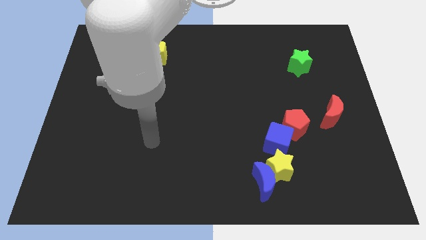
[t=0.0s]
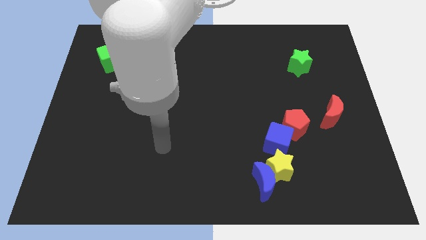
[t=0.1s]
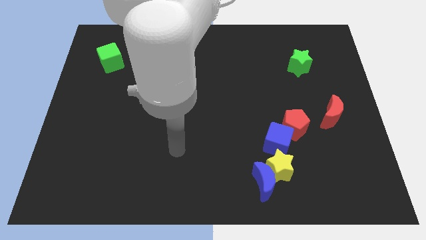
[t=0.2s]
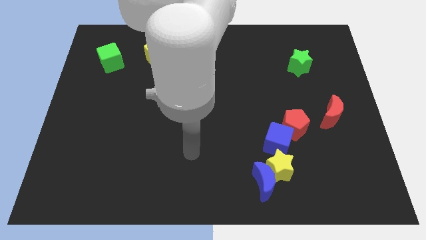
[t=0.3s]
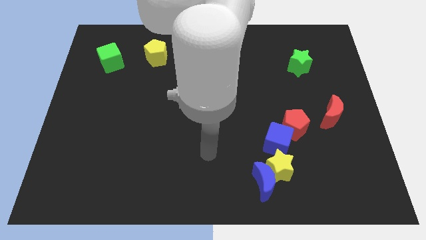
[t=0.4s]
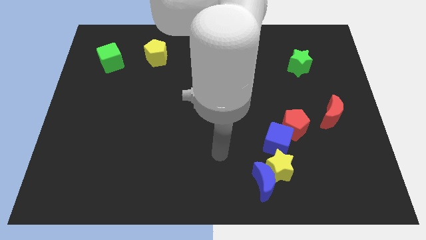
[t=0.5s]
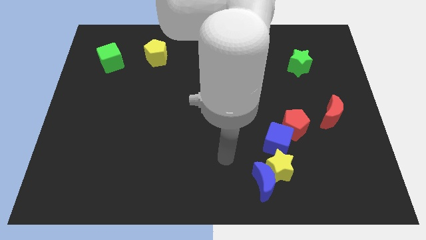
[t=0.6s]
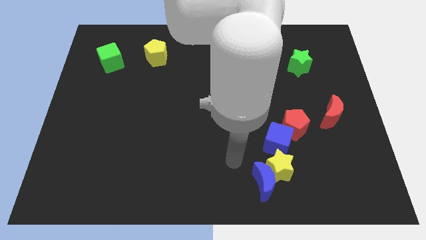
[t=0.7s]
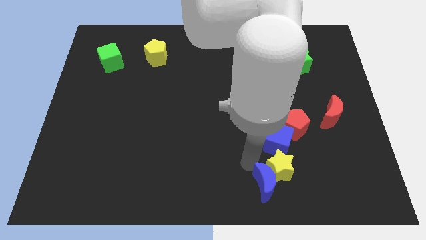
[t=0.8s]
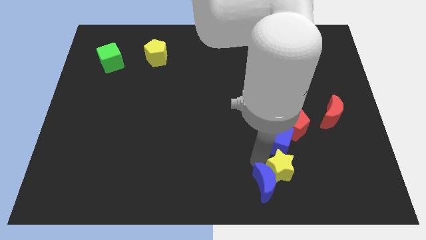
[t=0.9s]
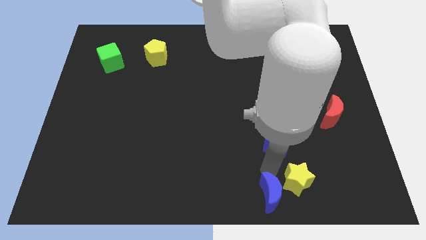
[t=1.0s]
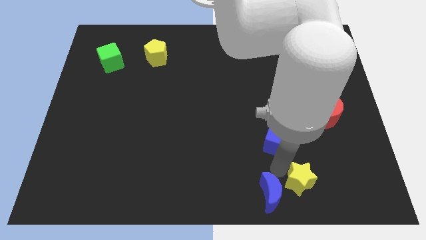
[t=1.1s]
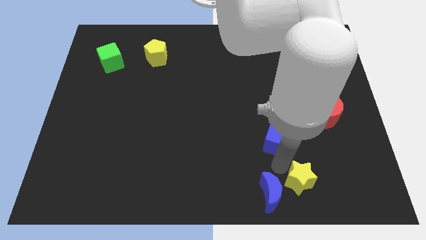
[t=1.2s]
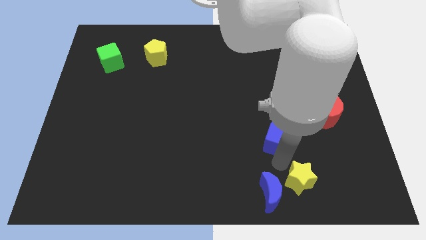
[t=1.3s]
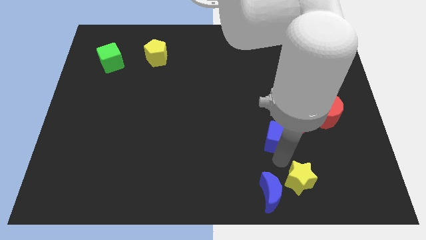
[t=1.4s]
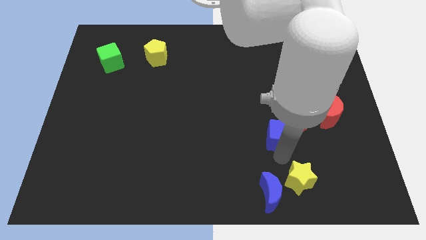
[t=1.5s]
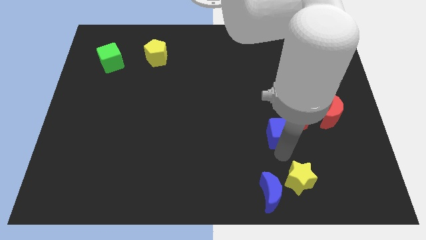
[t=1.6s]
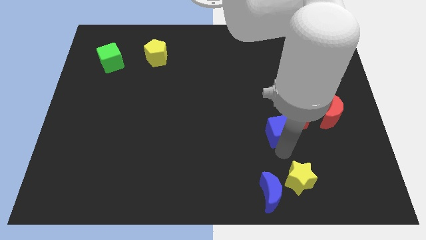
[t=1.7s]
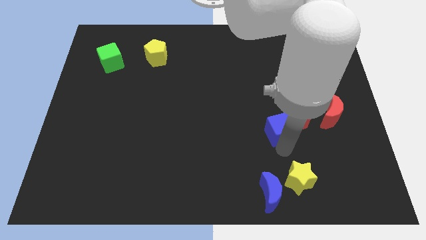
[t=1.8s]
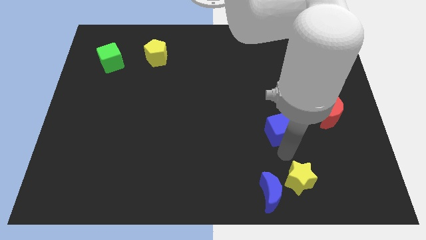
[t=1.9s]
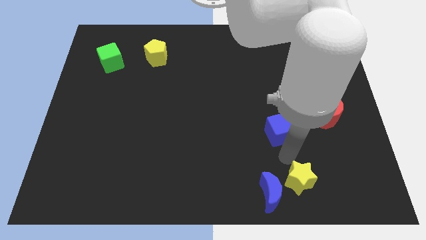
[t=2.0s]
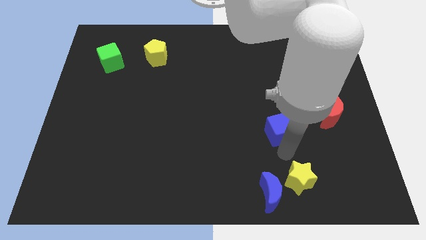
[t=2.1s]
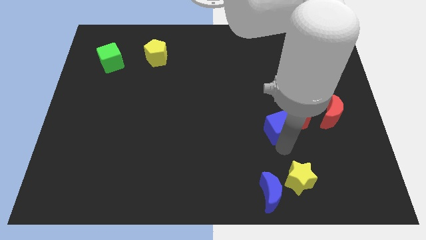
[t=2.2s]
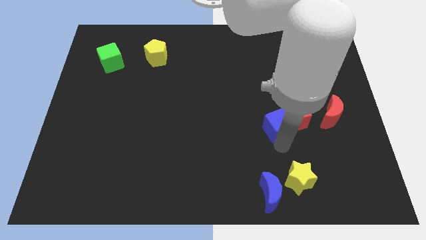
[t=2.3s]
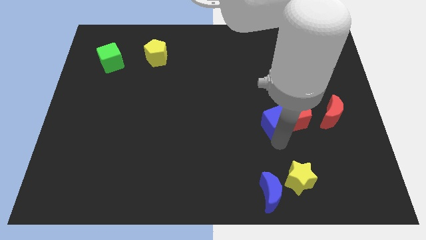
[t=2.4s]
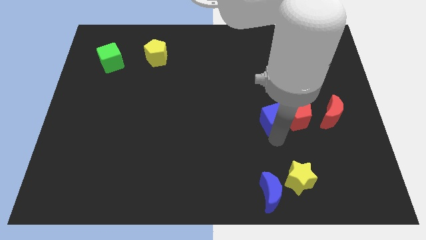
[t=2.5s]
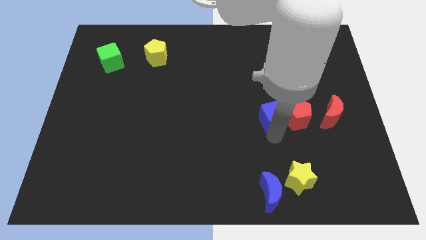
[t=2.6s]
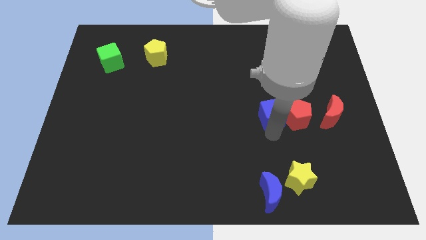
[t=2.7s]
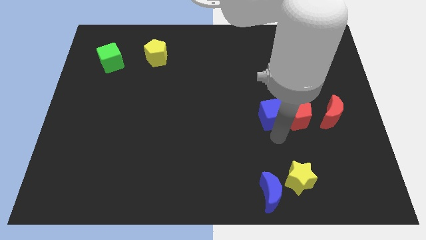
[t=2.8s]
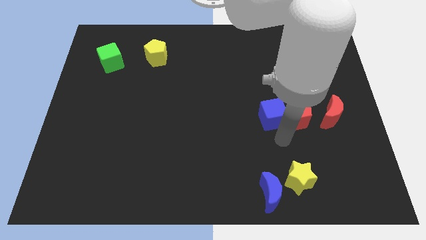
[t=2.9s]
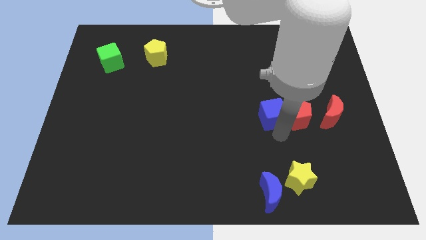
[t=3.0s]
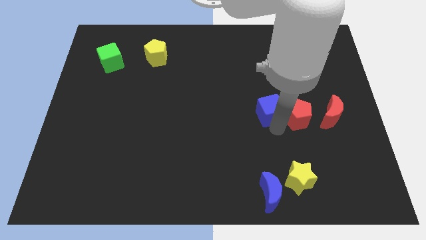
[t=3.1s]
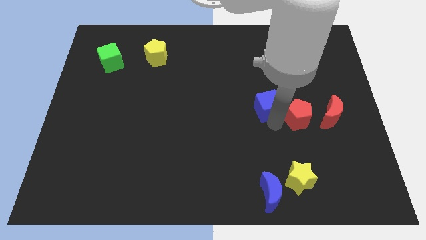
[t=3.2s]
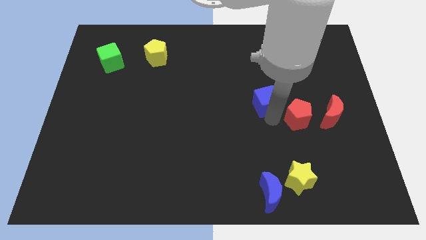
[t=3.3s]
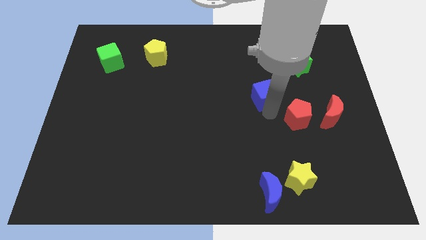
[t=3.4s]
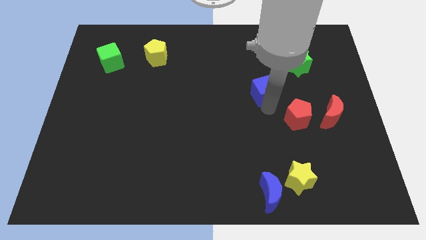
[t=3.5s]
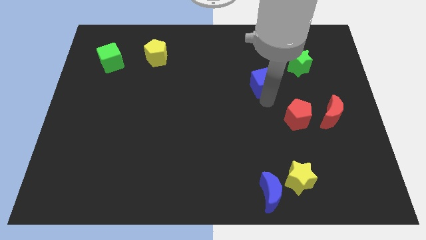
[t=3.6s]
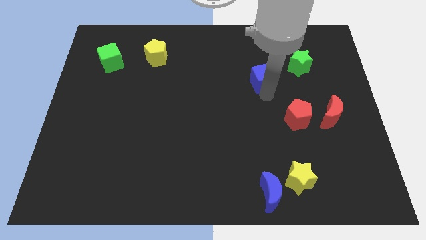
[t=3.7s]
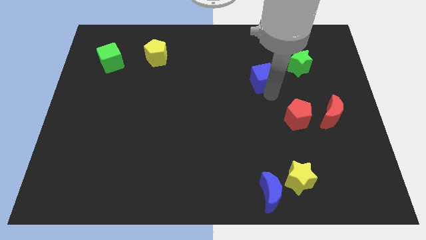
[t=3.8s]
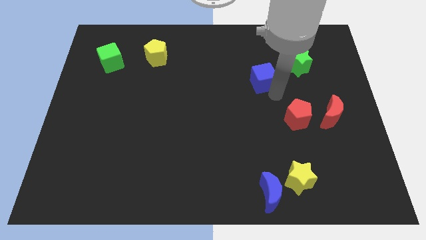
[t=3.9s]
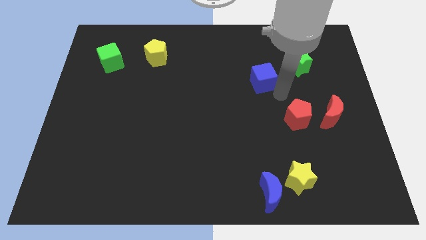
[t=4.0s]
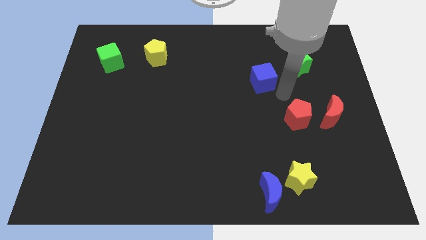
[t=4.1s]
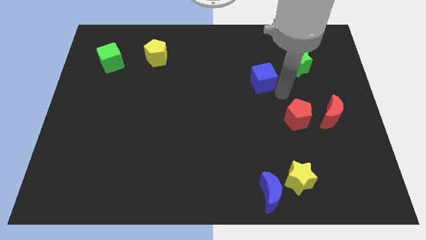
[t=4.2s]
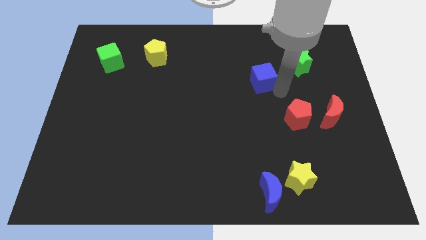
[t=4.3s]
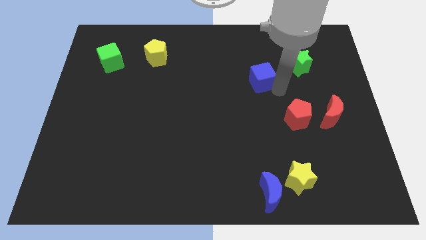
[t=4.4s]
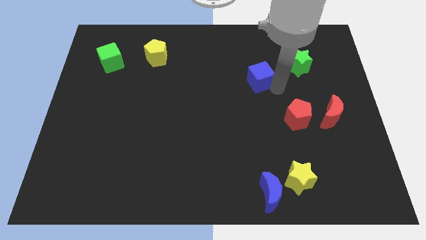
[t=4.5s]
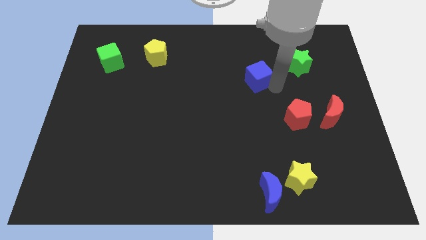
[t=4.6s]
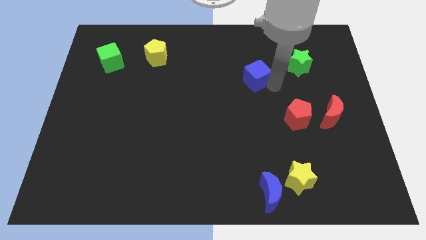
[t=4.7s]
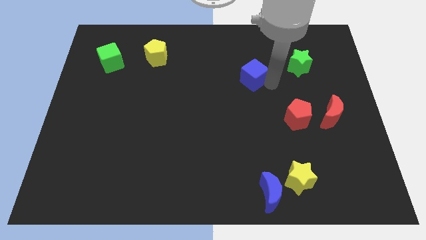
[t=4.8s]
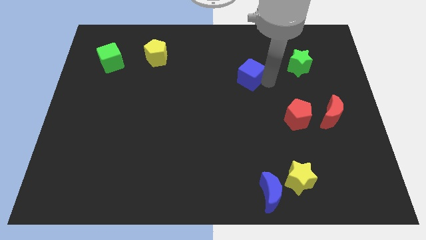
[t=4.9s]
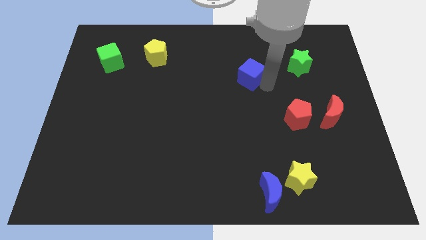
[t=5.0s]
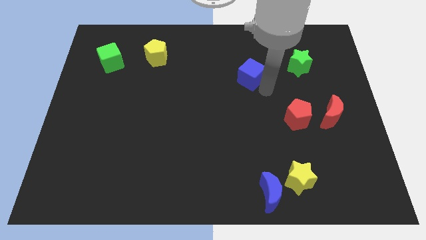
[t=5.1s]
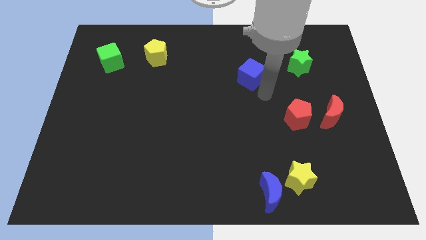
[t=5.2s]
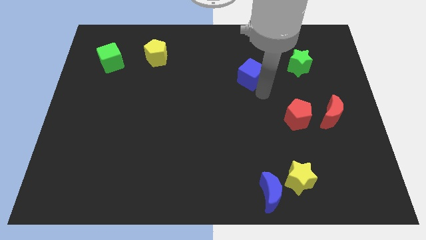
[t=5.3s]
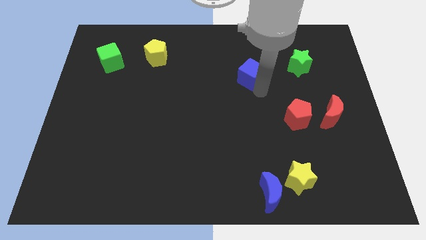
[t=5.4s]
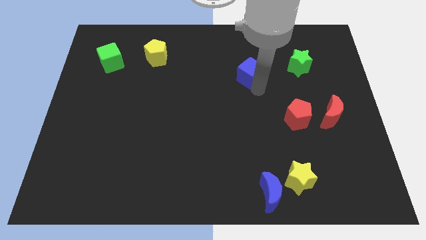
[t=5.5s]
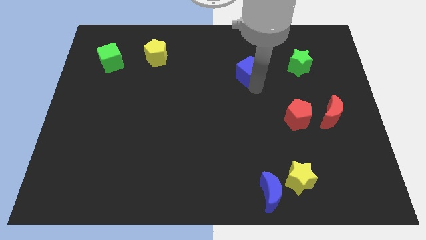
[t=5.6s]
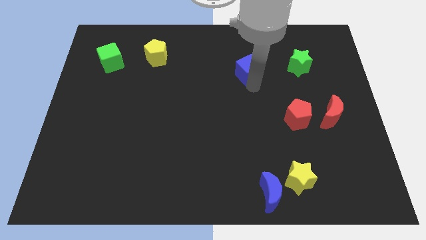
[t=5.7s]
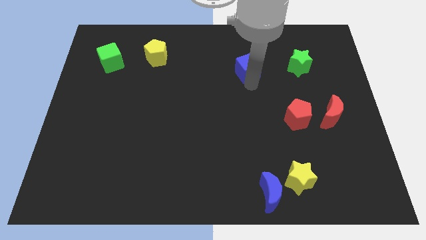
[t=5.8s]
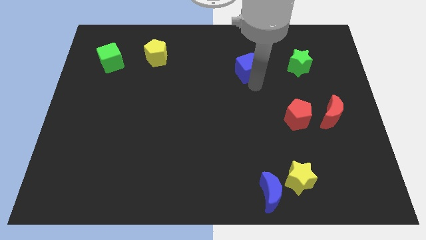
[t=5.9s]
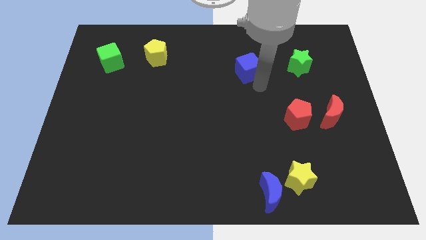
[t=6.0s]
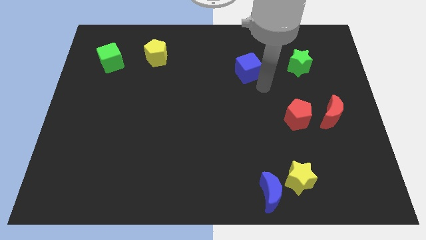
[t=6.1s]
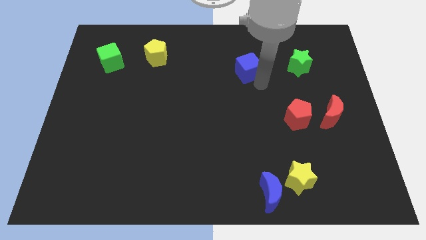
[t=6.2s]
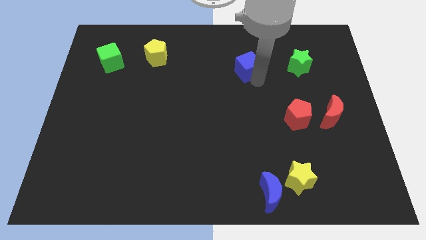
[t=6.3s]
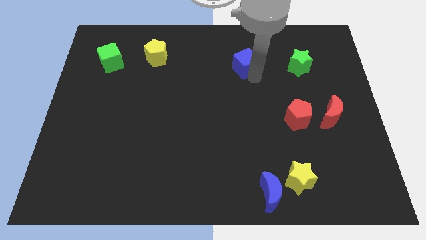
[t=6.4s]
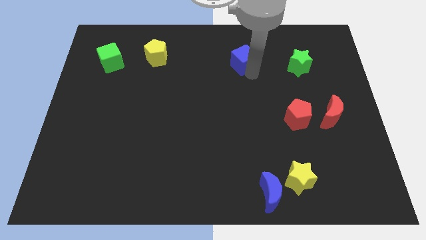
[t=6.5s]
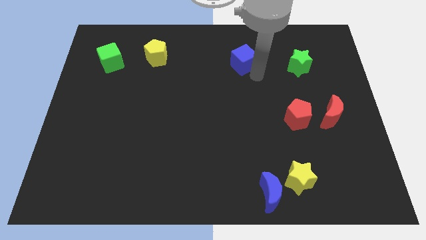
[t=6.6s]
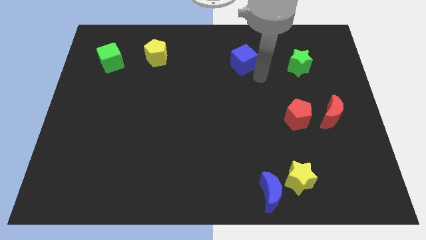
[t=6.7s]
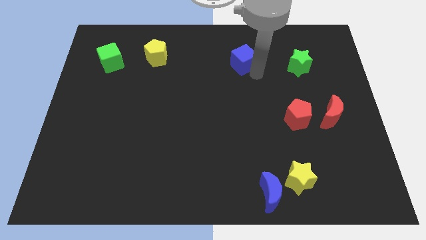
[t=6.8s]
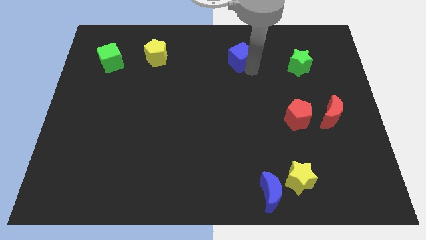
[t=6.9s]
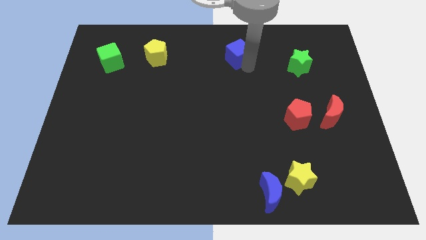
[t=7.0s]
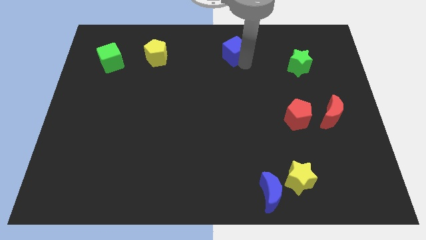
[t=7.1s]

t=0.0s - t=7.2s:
slide the blue cube to the towards your base
